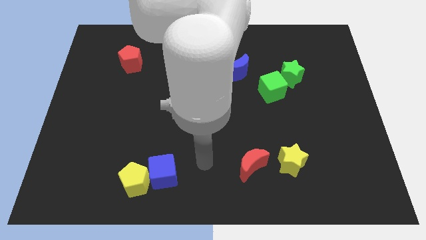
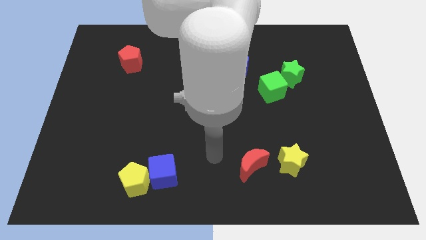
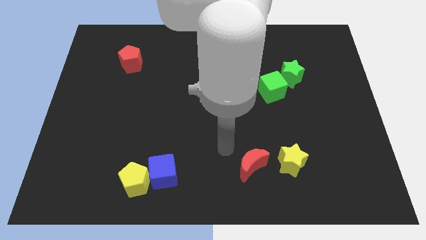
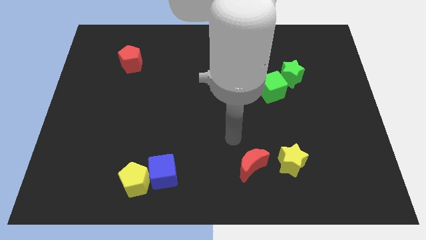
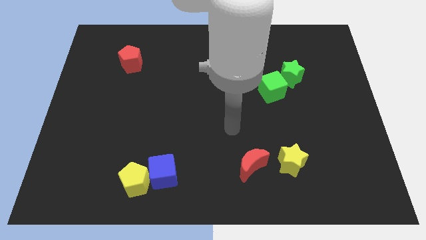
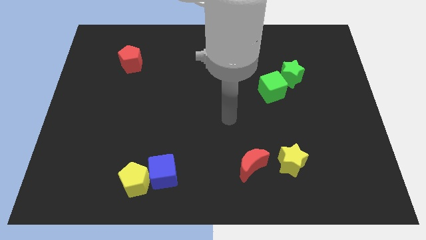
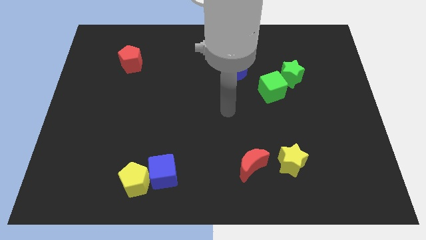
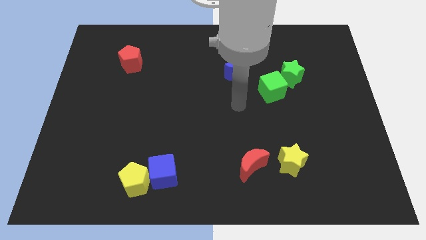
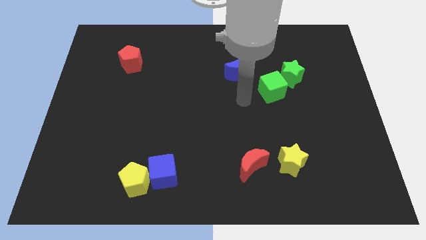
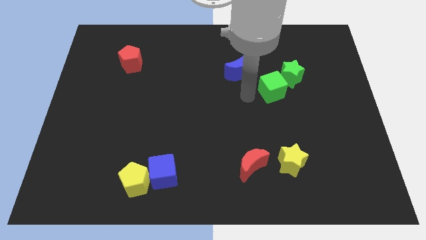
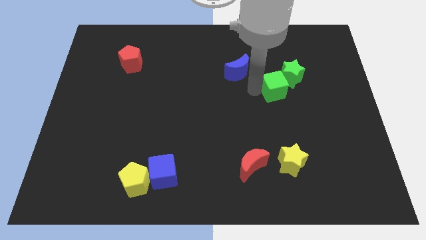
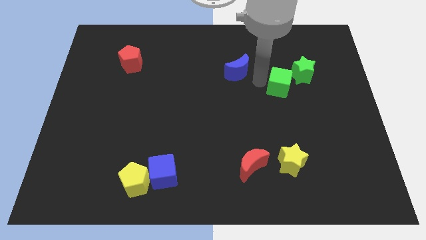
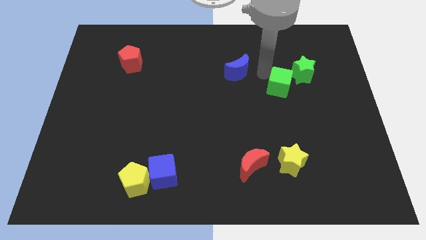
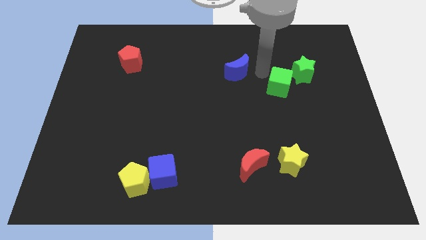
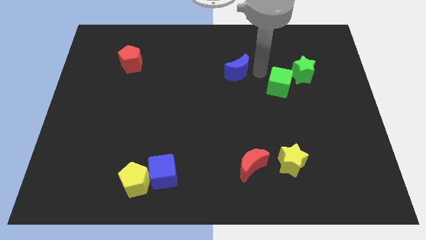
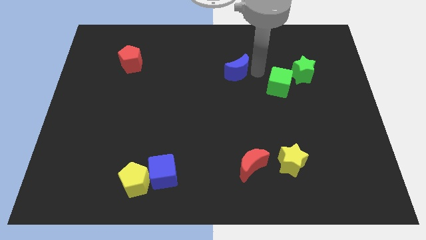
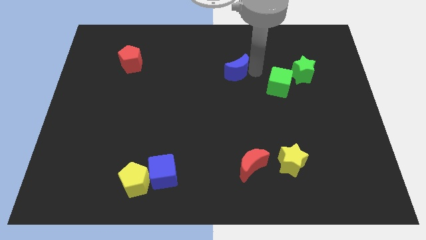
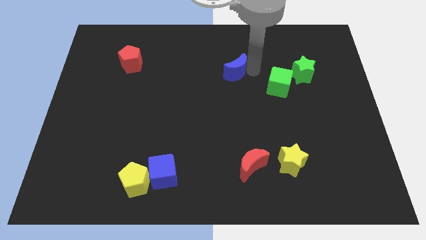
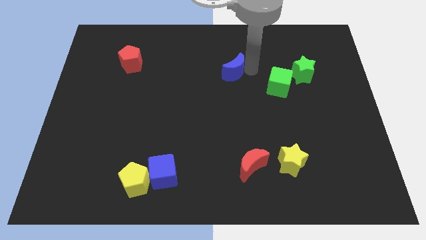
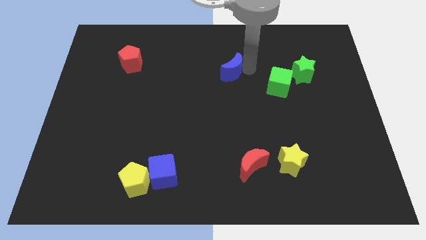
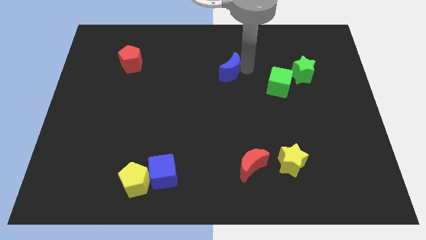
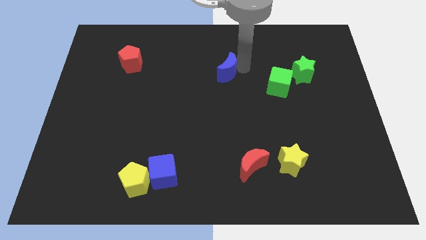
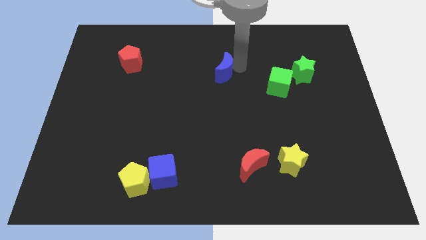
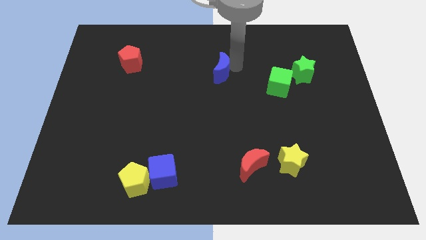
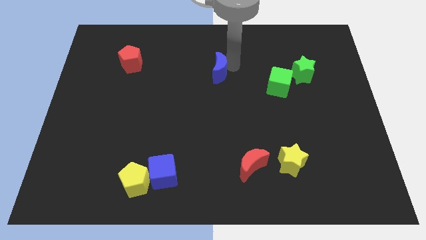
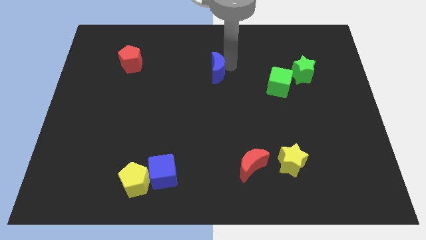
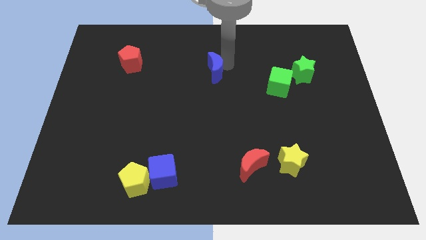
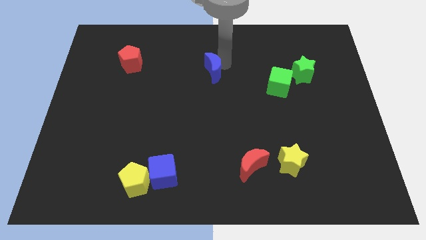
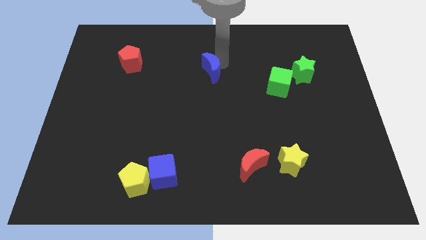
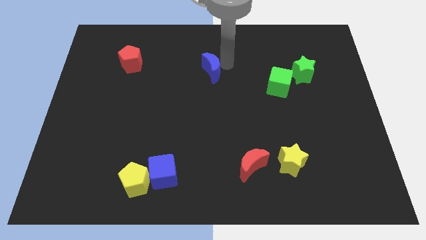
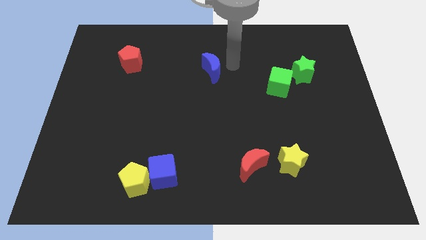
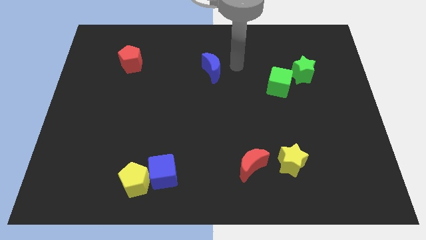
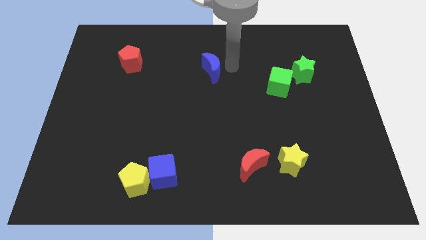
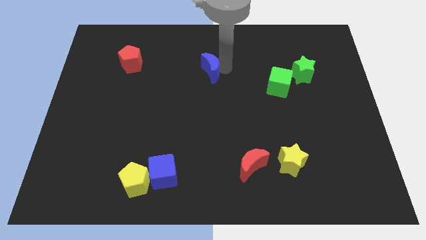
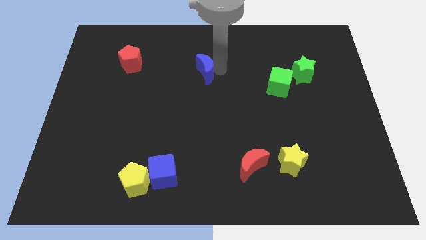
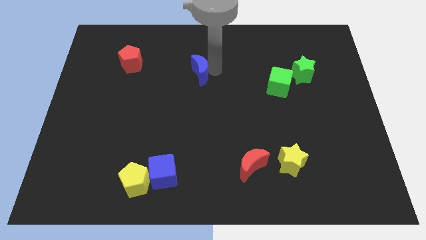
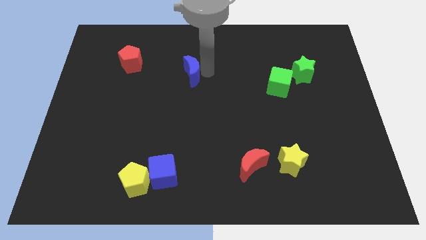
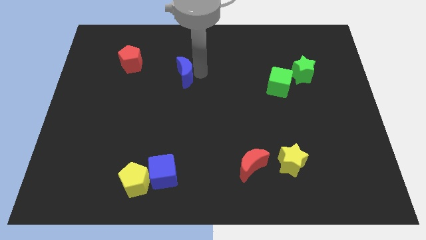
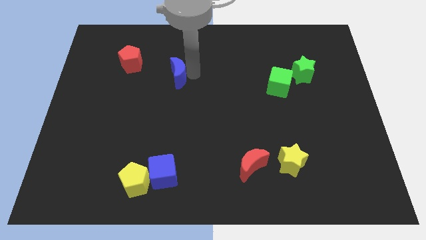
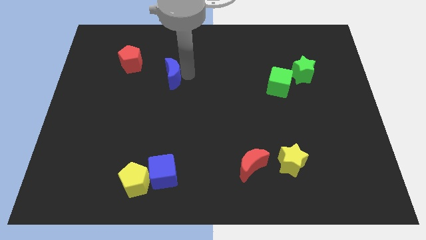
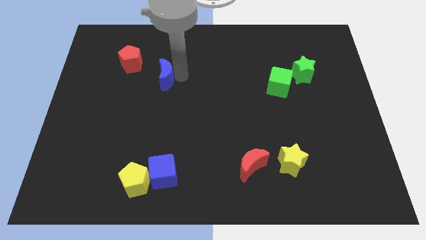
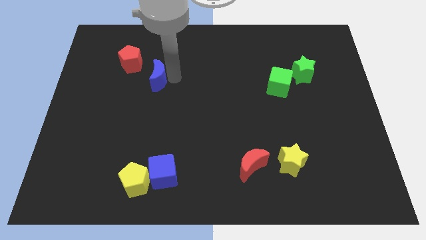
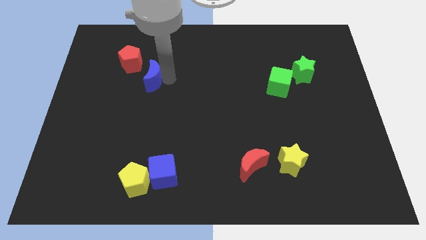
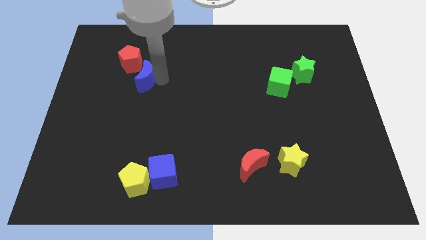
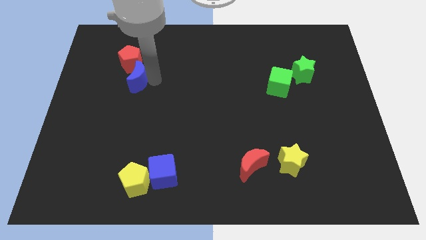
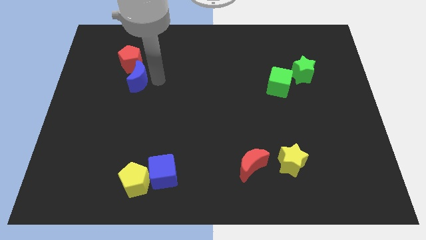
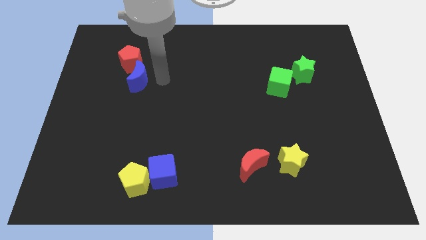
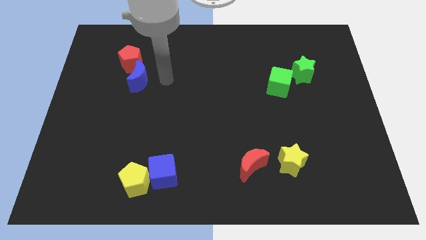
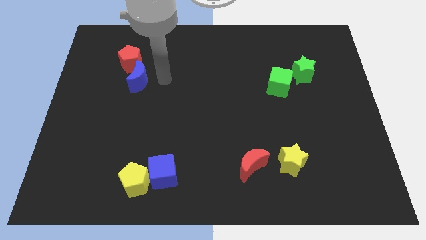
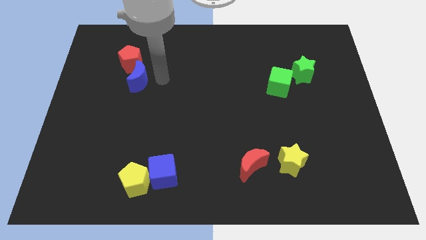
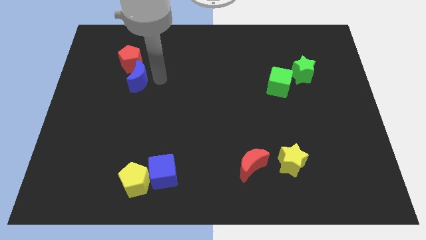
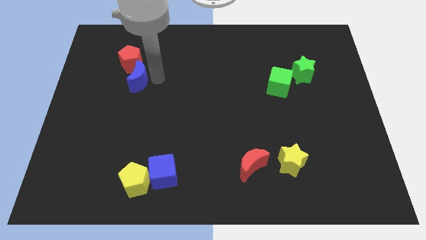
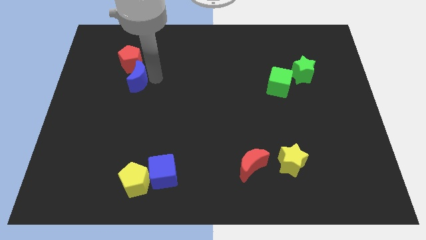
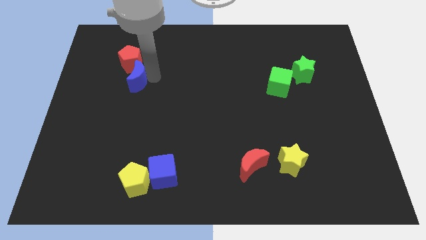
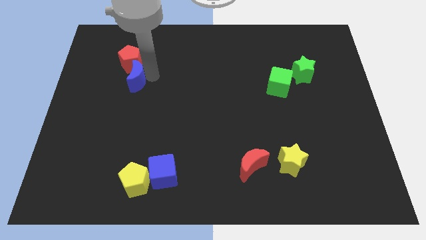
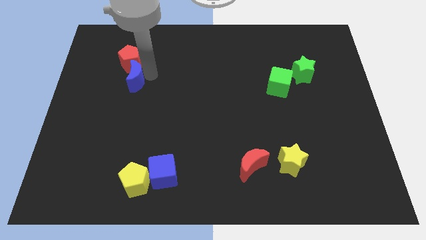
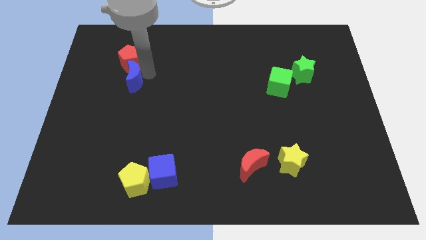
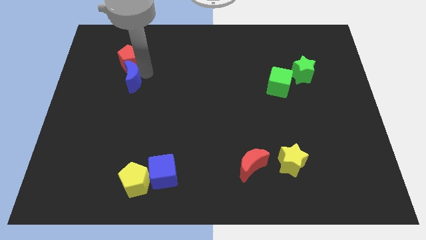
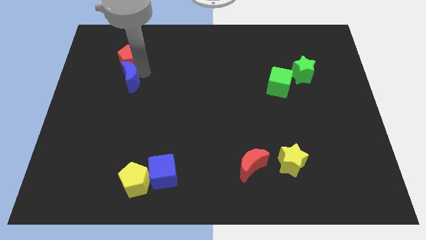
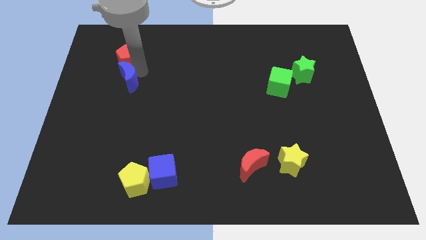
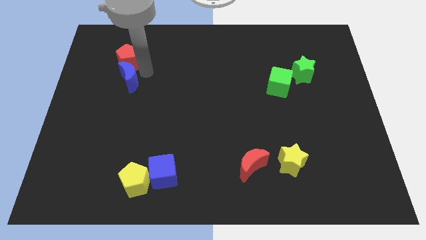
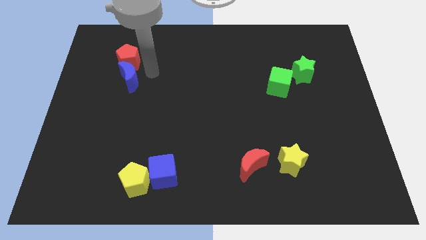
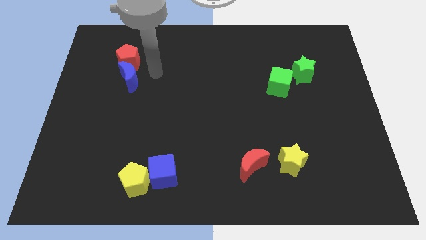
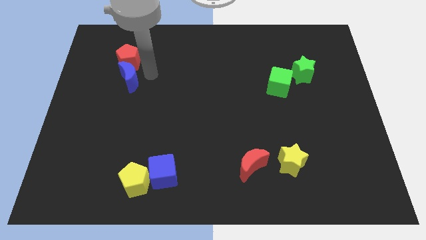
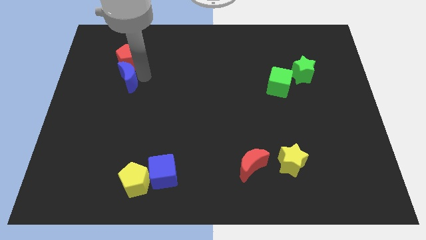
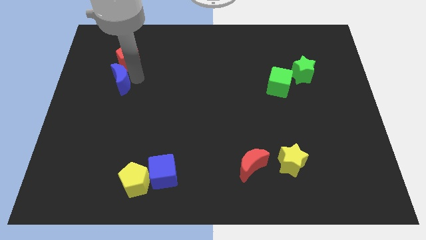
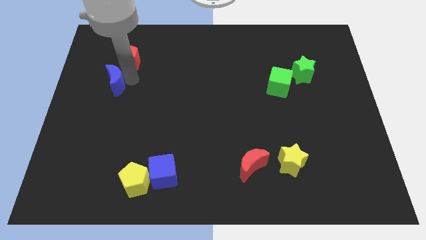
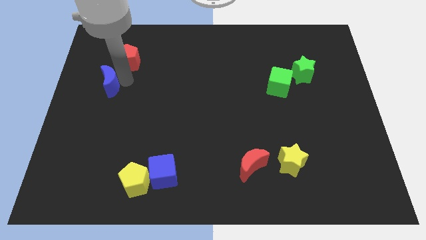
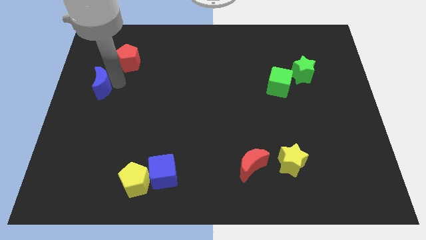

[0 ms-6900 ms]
move the blue moon to the center left
